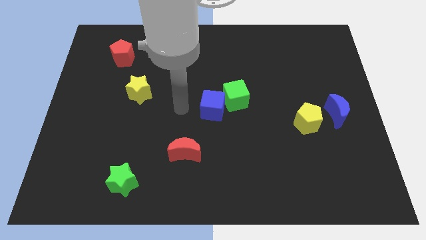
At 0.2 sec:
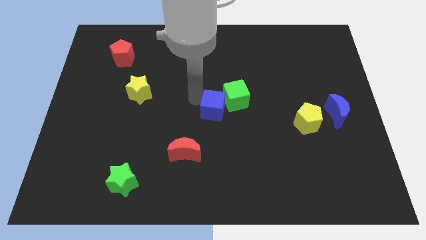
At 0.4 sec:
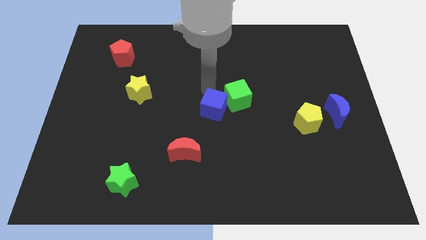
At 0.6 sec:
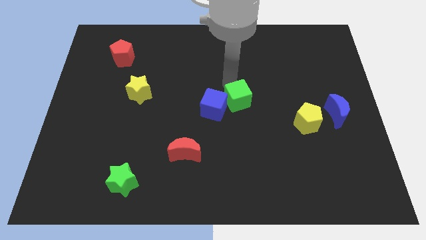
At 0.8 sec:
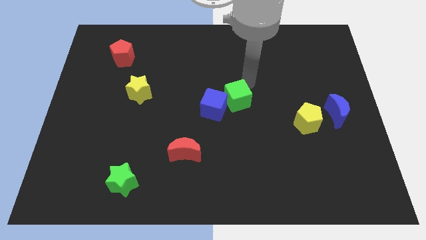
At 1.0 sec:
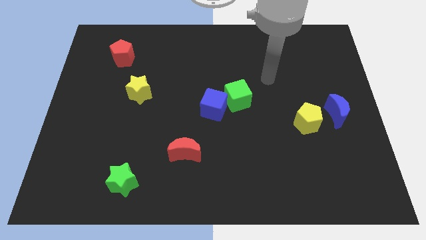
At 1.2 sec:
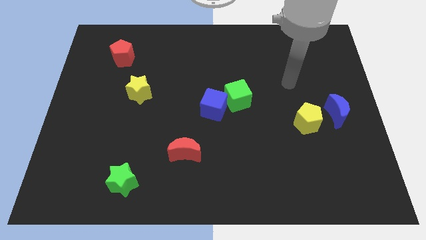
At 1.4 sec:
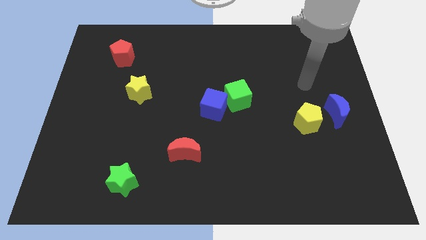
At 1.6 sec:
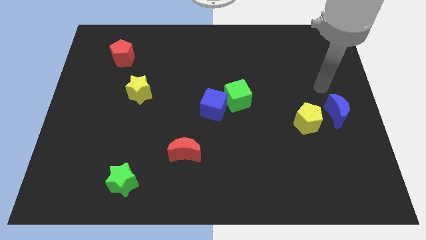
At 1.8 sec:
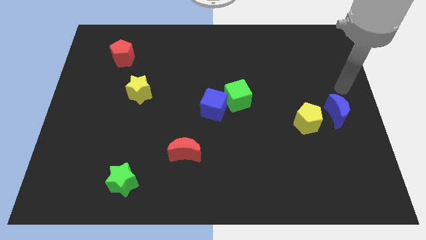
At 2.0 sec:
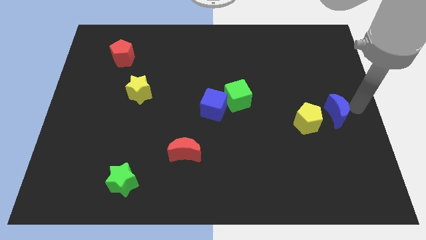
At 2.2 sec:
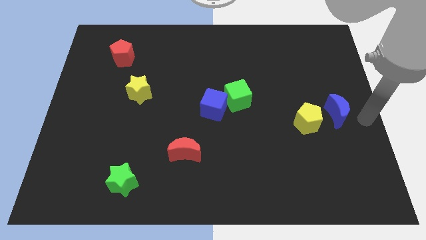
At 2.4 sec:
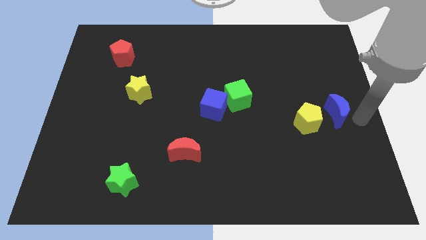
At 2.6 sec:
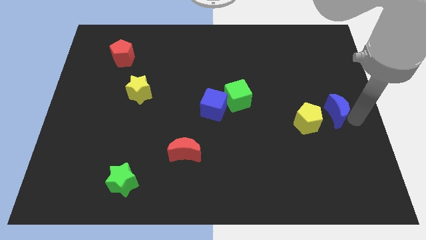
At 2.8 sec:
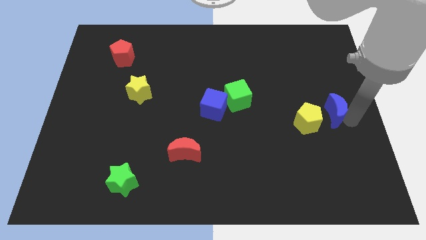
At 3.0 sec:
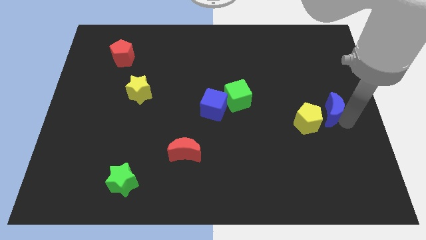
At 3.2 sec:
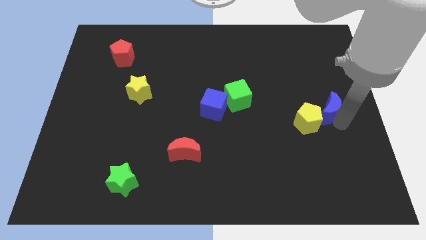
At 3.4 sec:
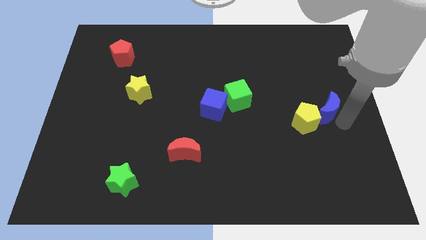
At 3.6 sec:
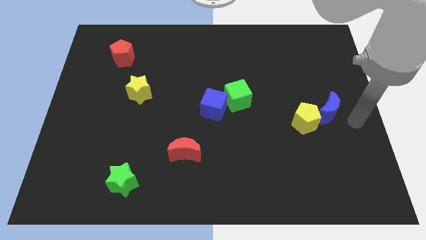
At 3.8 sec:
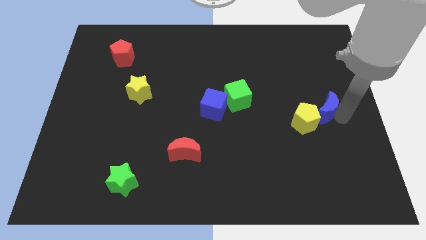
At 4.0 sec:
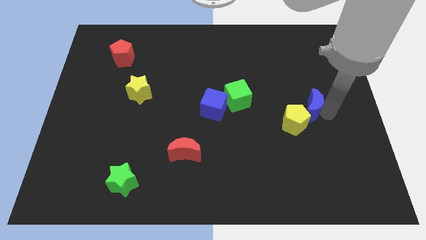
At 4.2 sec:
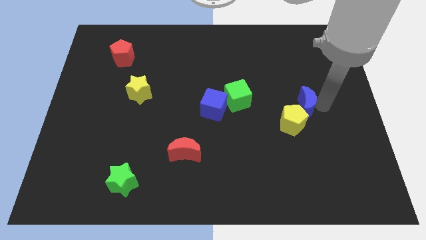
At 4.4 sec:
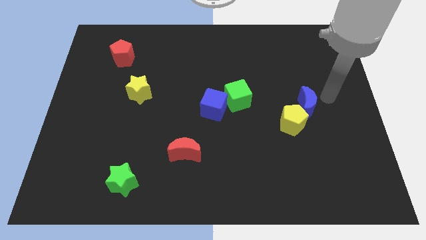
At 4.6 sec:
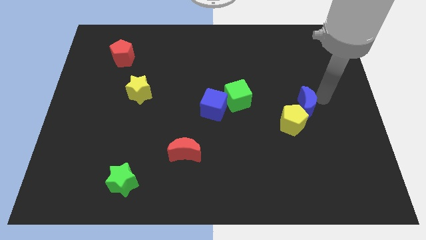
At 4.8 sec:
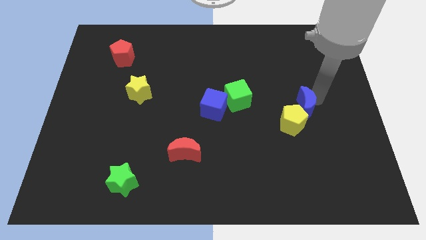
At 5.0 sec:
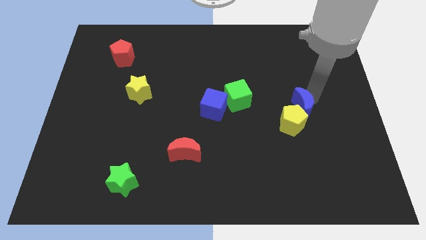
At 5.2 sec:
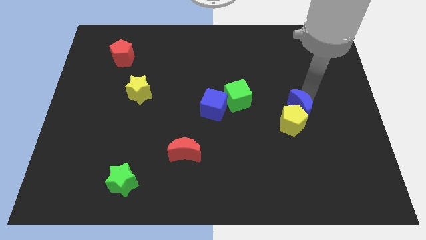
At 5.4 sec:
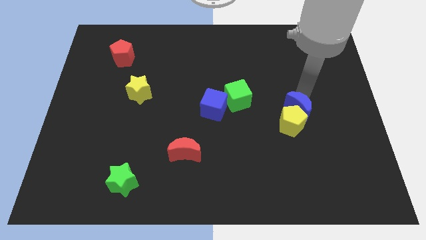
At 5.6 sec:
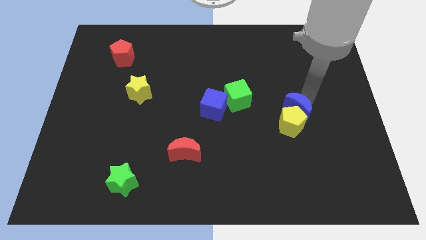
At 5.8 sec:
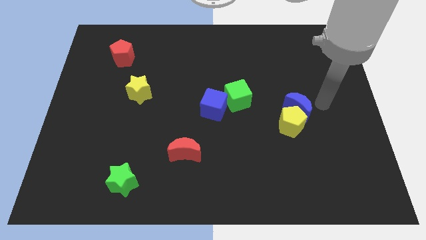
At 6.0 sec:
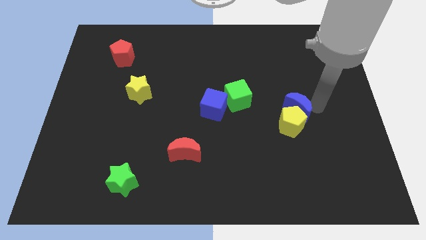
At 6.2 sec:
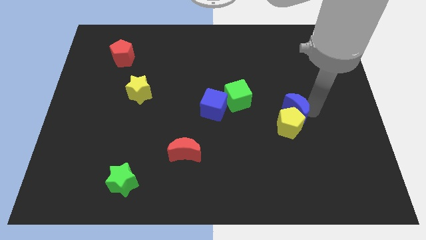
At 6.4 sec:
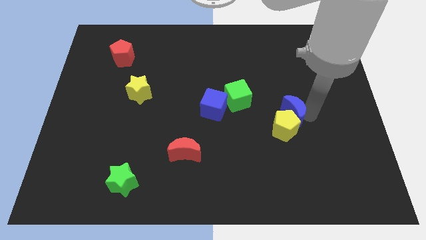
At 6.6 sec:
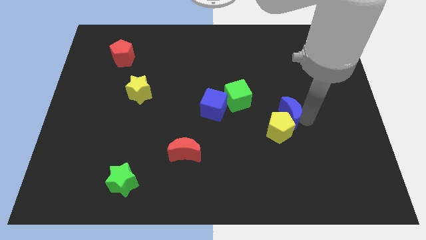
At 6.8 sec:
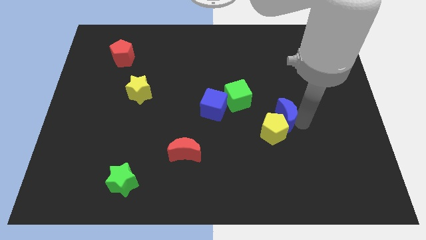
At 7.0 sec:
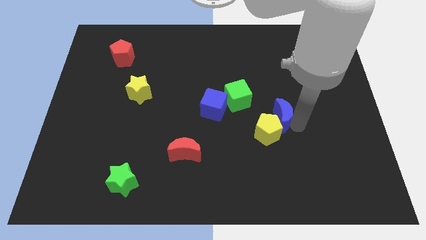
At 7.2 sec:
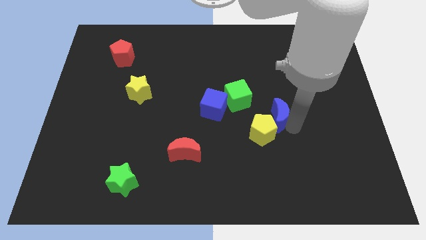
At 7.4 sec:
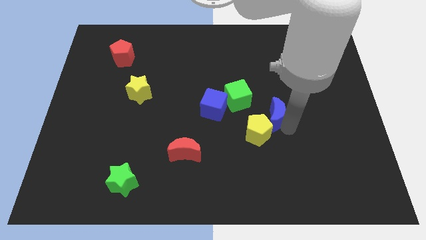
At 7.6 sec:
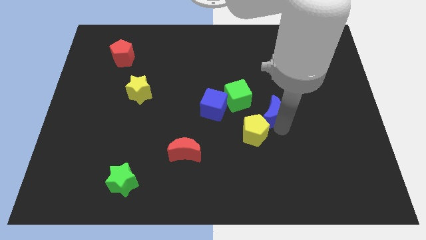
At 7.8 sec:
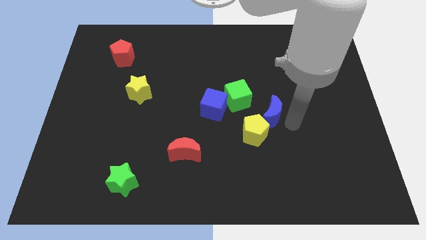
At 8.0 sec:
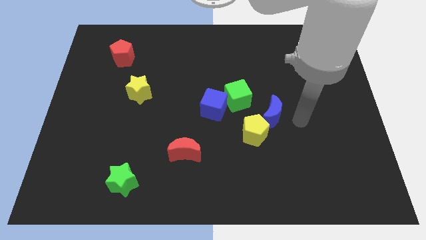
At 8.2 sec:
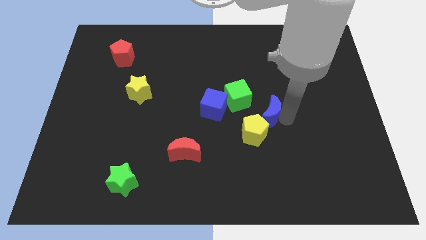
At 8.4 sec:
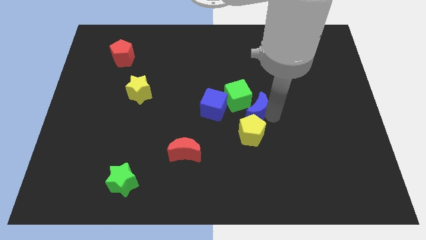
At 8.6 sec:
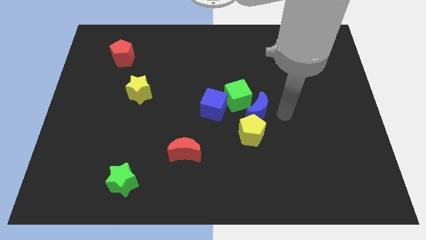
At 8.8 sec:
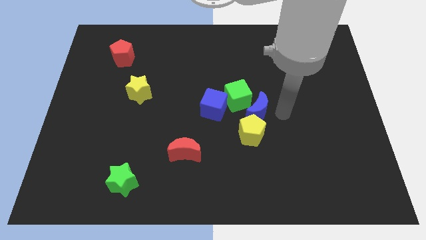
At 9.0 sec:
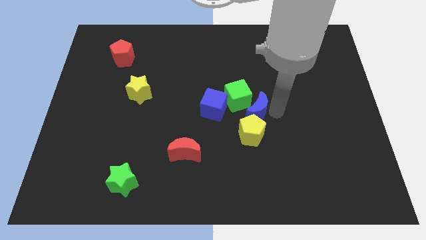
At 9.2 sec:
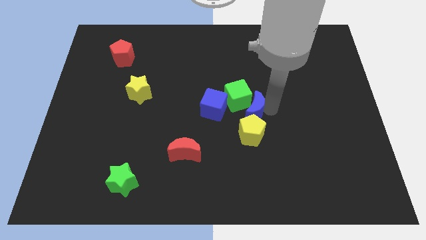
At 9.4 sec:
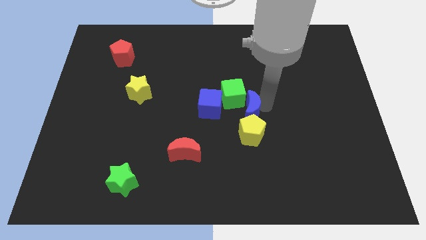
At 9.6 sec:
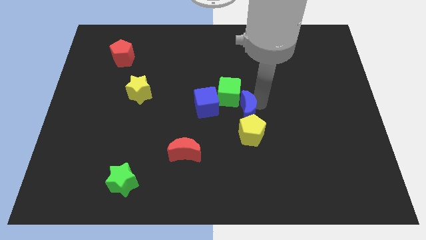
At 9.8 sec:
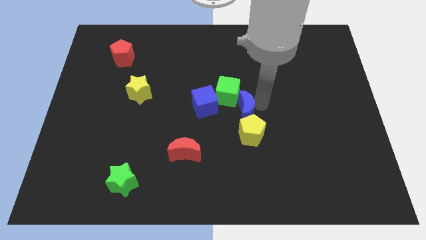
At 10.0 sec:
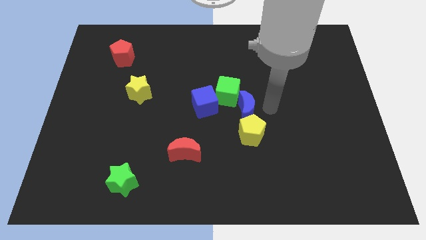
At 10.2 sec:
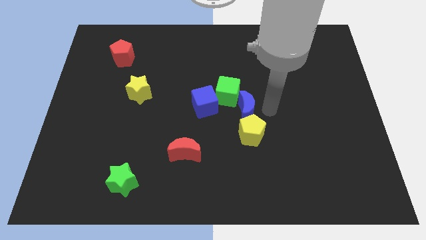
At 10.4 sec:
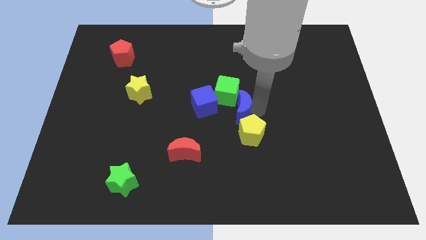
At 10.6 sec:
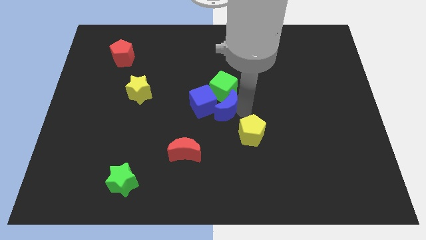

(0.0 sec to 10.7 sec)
push the blue moon close to the blue cube

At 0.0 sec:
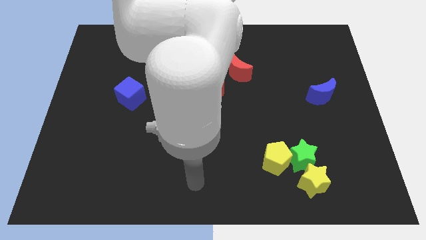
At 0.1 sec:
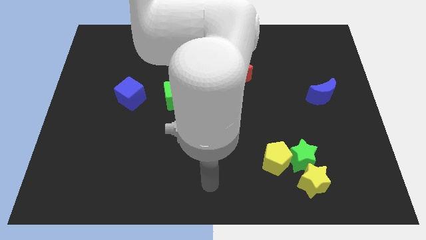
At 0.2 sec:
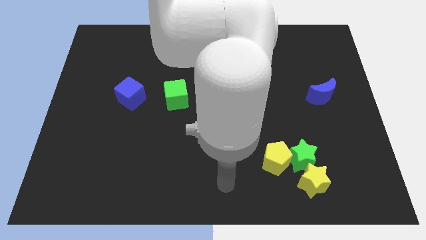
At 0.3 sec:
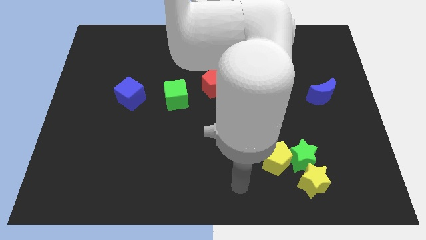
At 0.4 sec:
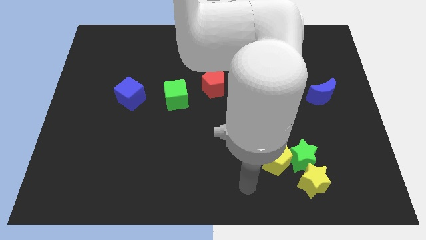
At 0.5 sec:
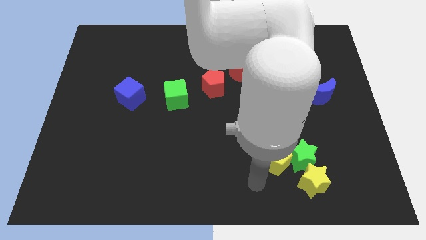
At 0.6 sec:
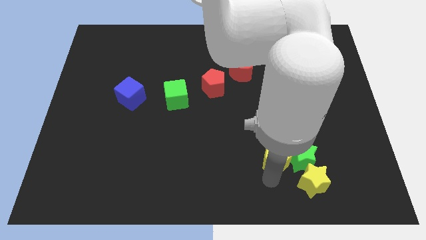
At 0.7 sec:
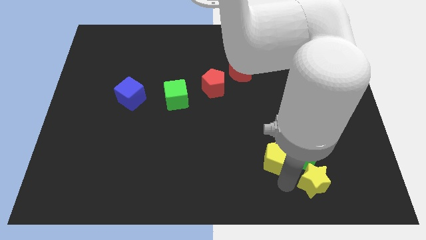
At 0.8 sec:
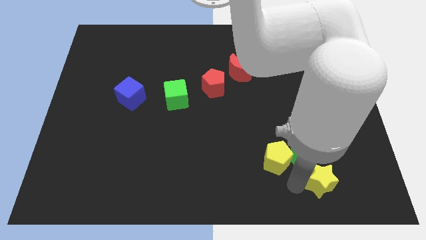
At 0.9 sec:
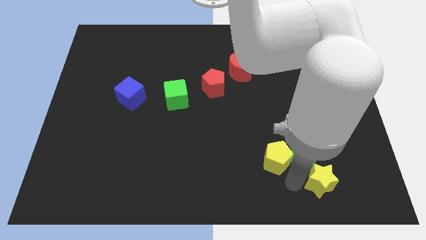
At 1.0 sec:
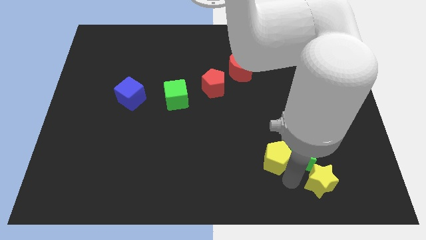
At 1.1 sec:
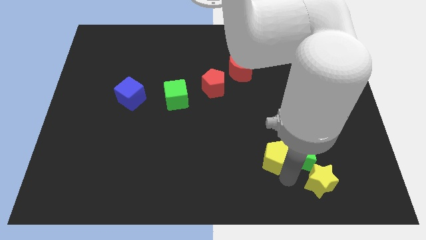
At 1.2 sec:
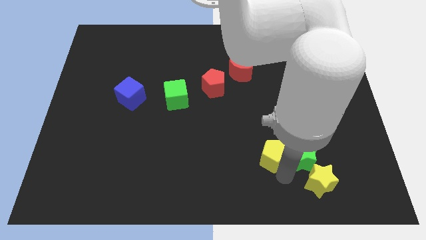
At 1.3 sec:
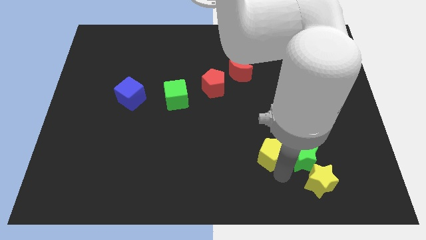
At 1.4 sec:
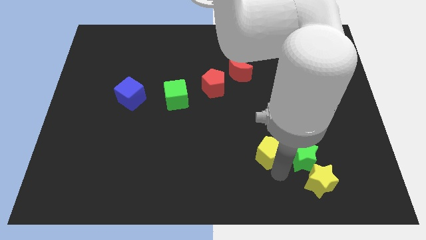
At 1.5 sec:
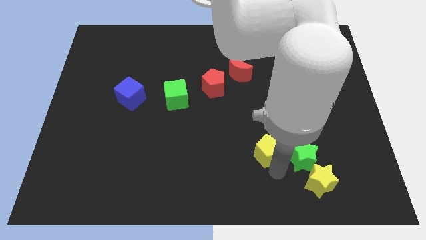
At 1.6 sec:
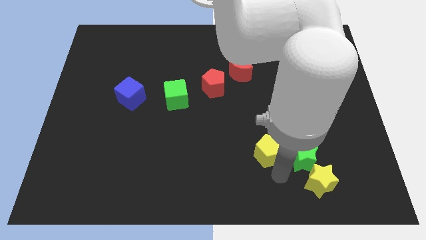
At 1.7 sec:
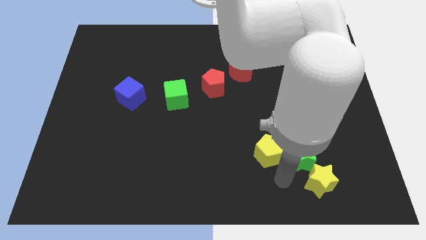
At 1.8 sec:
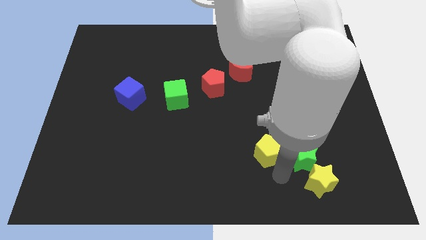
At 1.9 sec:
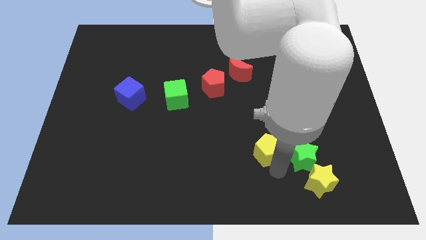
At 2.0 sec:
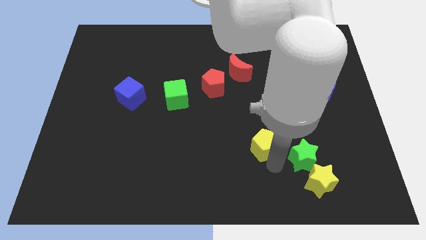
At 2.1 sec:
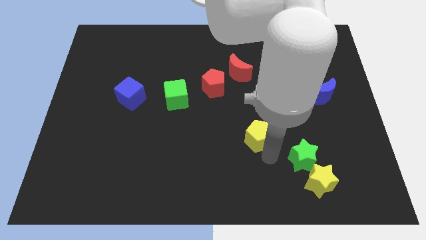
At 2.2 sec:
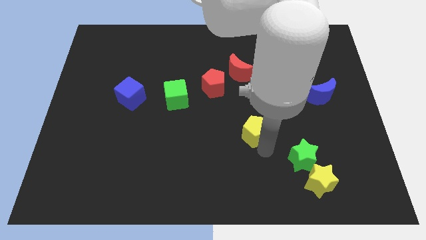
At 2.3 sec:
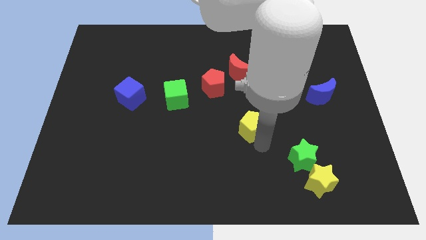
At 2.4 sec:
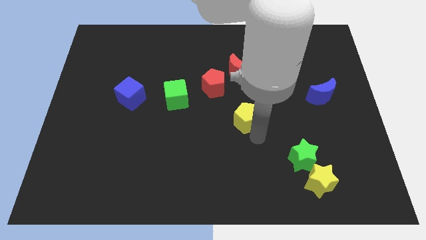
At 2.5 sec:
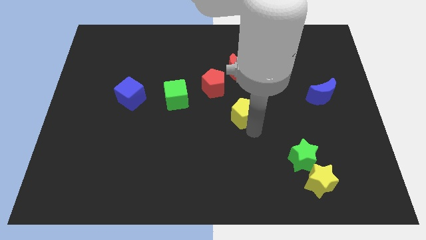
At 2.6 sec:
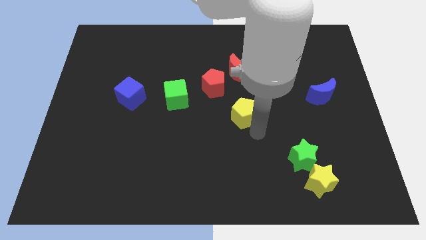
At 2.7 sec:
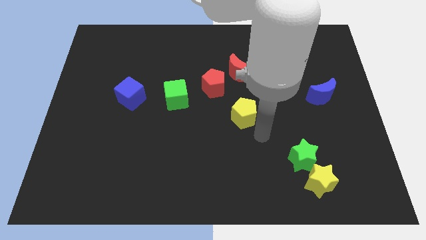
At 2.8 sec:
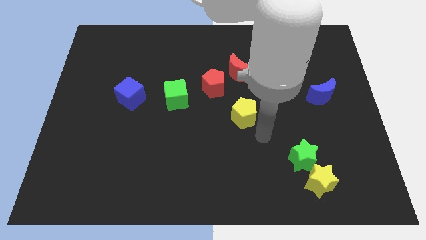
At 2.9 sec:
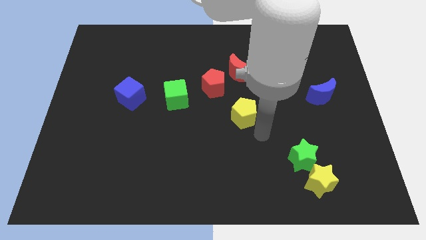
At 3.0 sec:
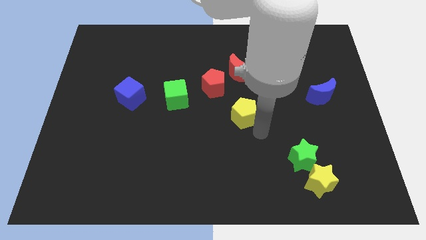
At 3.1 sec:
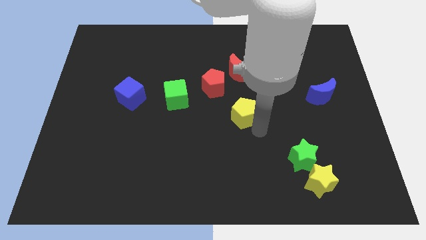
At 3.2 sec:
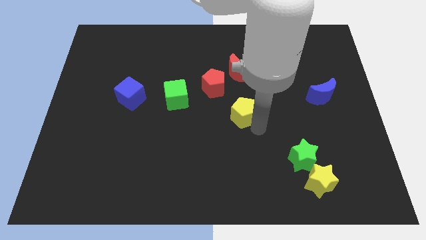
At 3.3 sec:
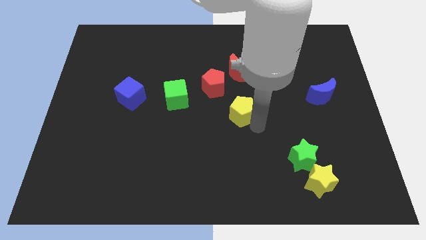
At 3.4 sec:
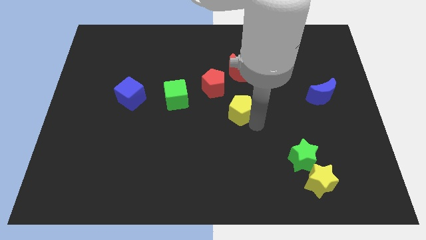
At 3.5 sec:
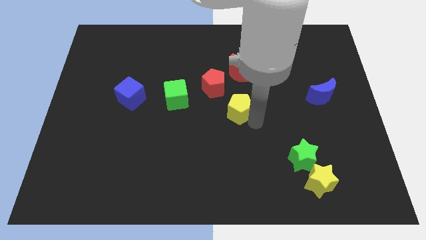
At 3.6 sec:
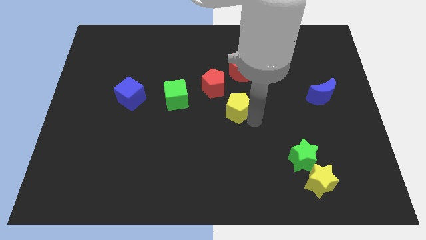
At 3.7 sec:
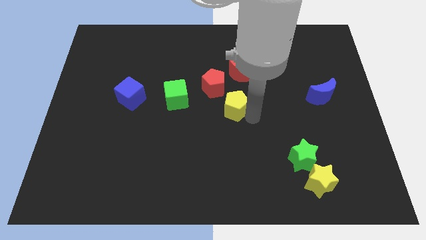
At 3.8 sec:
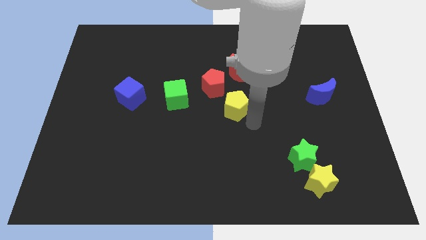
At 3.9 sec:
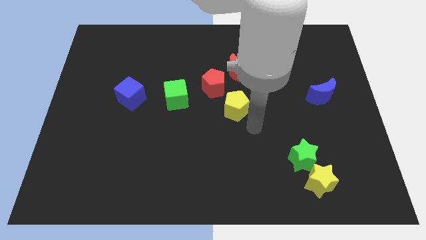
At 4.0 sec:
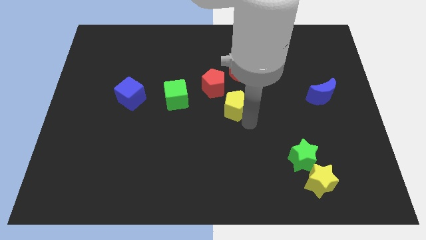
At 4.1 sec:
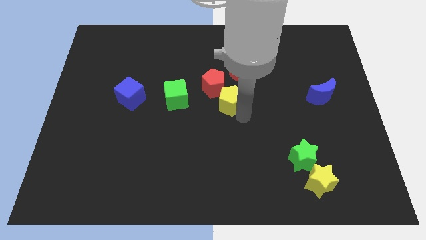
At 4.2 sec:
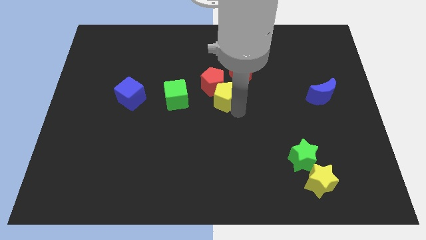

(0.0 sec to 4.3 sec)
slide the yellow pentagon close to the red pentagon
